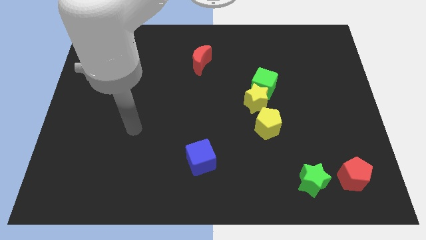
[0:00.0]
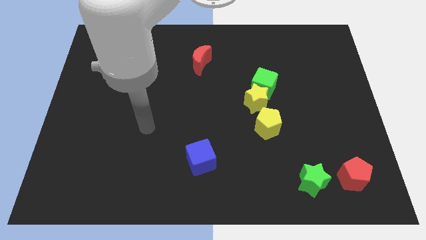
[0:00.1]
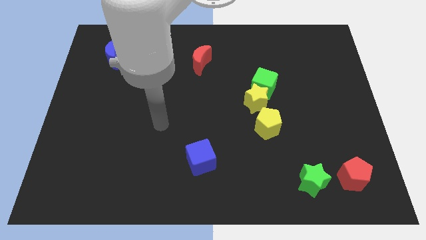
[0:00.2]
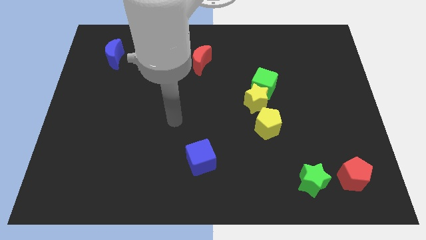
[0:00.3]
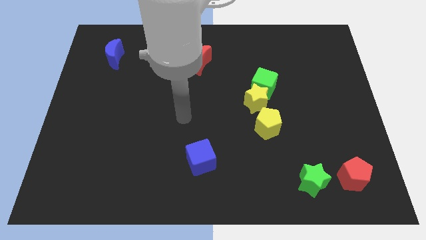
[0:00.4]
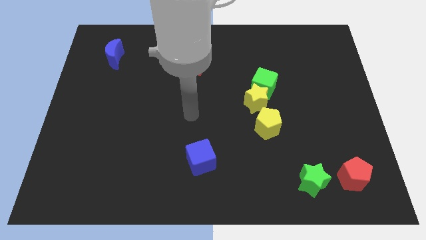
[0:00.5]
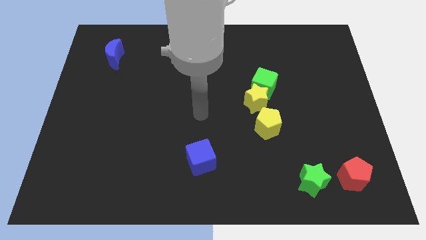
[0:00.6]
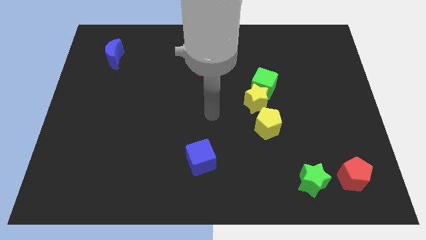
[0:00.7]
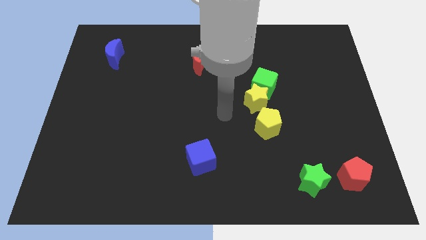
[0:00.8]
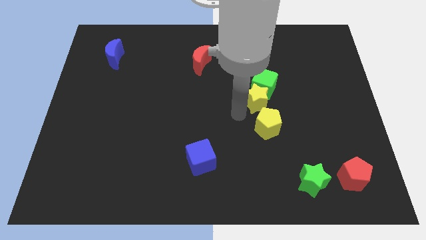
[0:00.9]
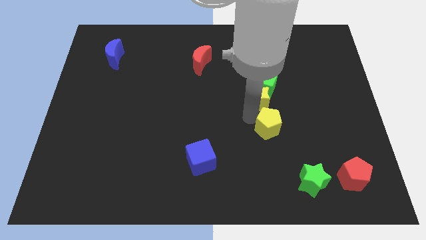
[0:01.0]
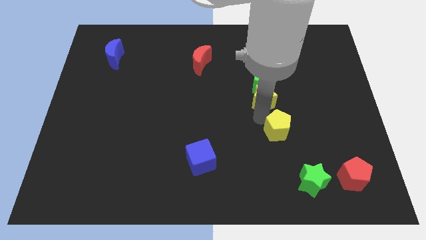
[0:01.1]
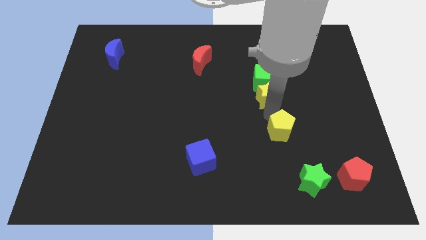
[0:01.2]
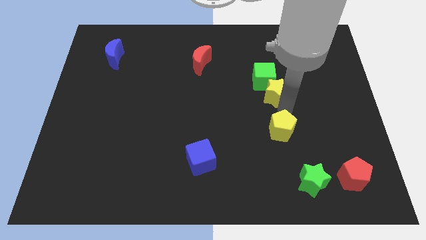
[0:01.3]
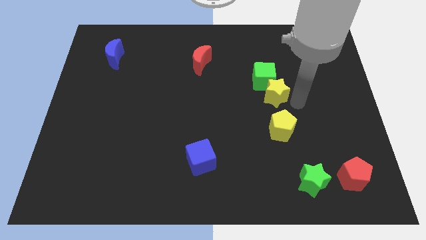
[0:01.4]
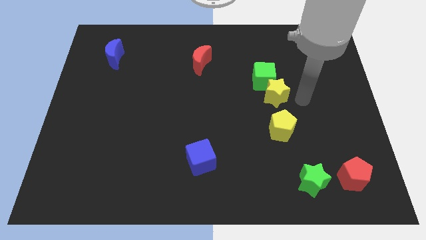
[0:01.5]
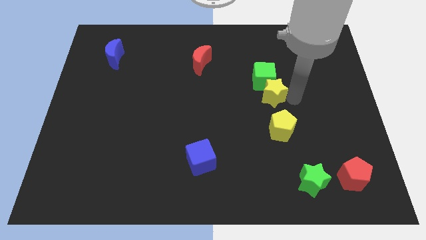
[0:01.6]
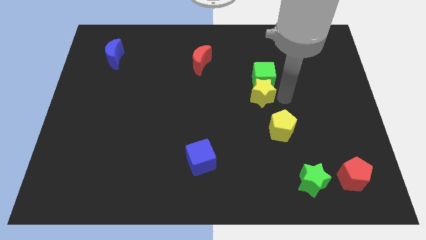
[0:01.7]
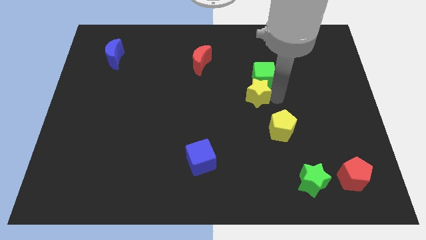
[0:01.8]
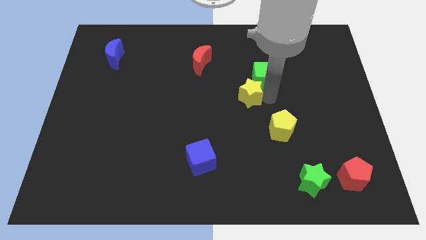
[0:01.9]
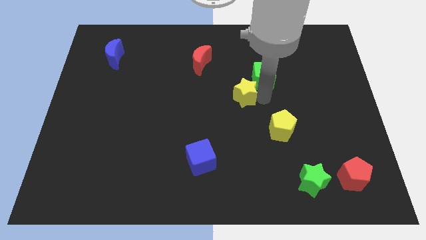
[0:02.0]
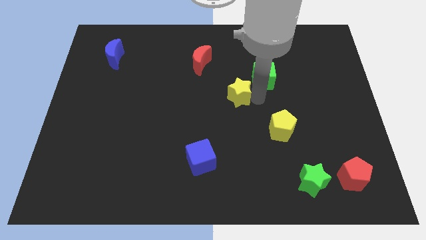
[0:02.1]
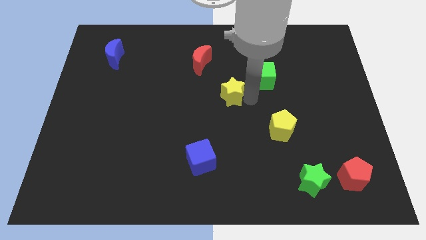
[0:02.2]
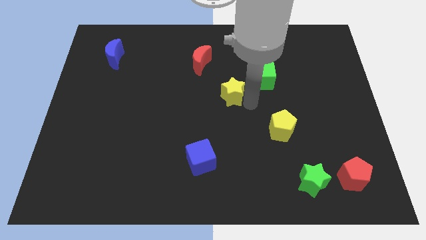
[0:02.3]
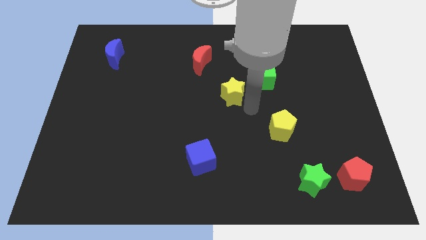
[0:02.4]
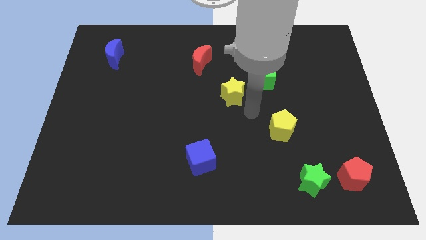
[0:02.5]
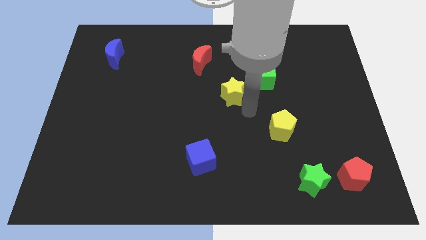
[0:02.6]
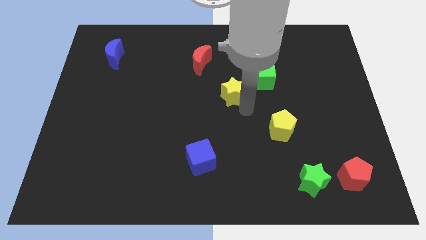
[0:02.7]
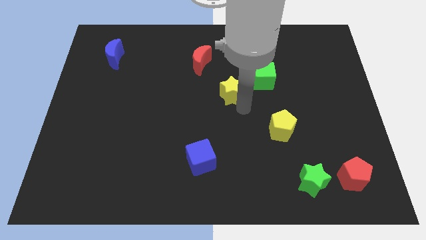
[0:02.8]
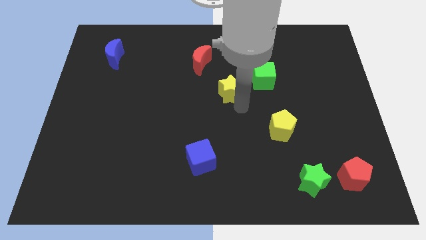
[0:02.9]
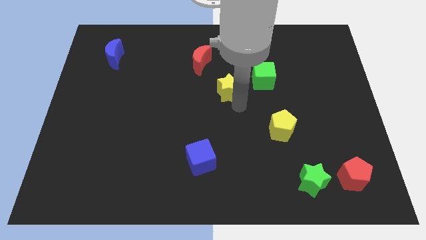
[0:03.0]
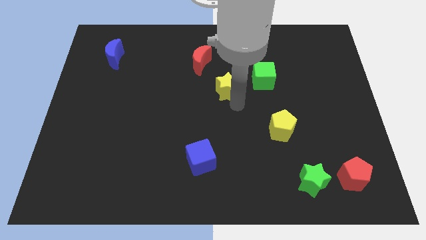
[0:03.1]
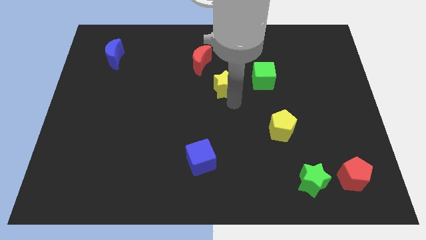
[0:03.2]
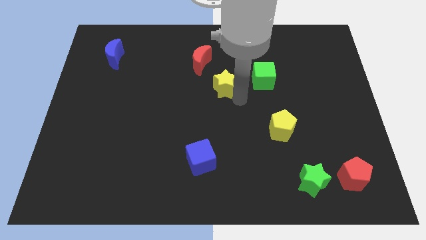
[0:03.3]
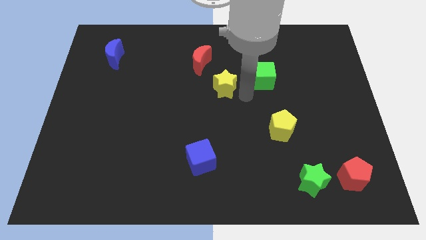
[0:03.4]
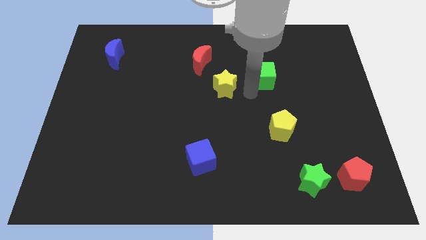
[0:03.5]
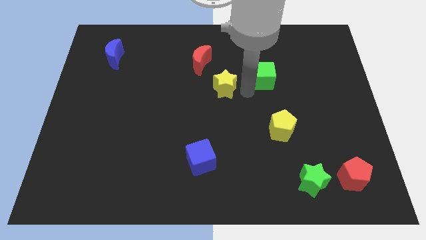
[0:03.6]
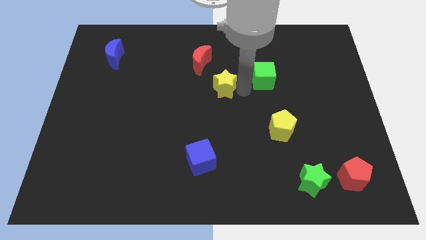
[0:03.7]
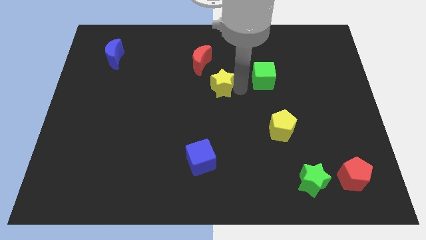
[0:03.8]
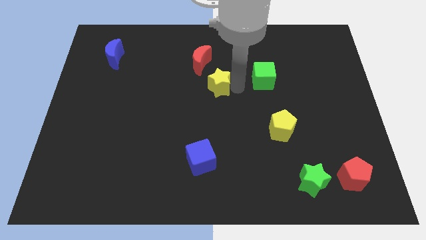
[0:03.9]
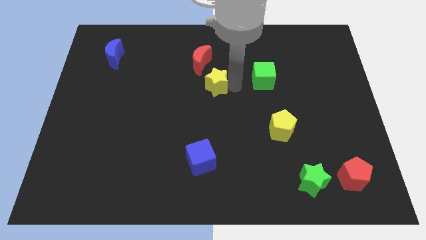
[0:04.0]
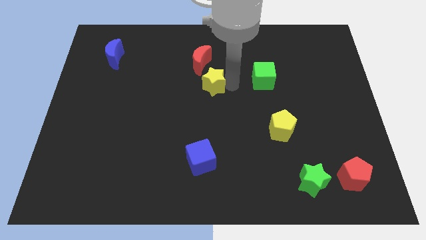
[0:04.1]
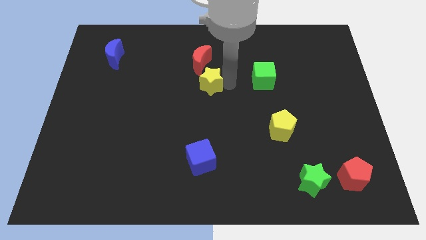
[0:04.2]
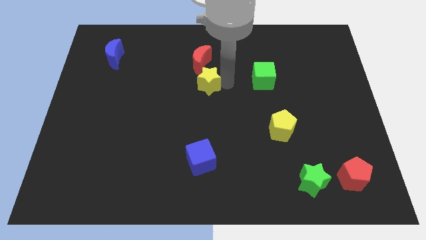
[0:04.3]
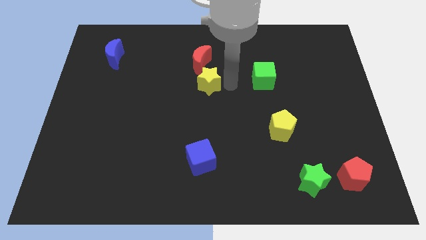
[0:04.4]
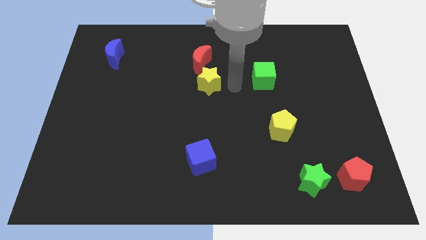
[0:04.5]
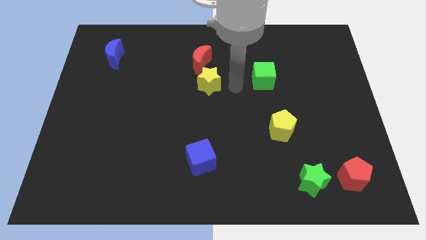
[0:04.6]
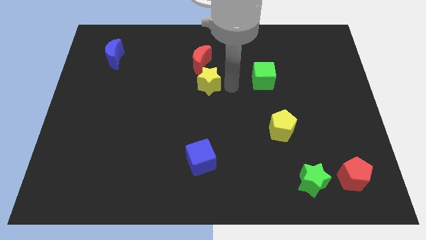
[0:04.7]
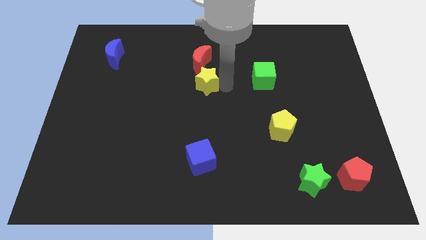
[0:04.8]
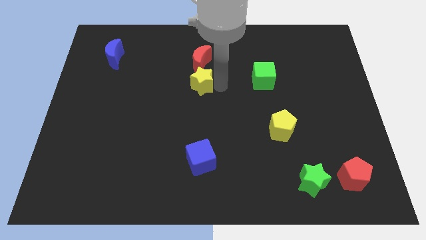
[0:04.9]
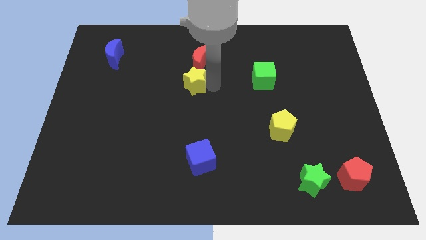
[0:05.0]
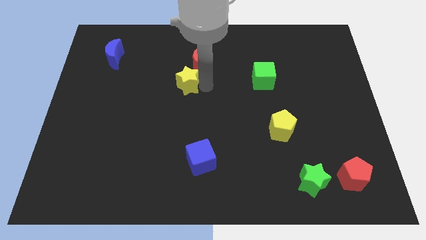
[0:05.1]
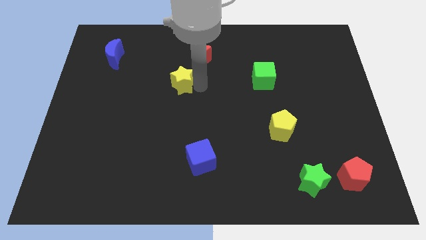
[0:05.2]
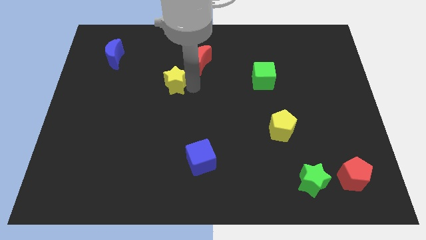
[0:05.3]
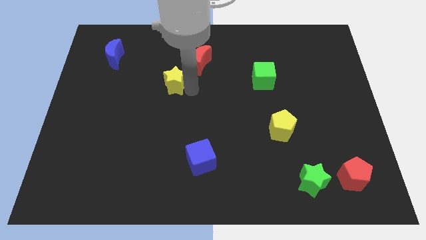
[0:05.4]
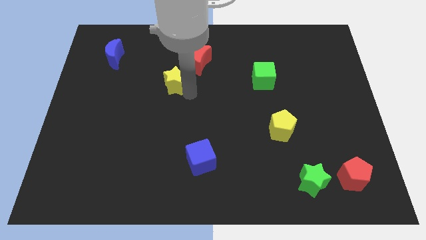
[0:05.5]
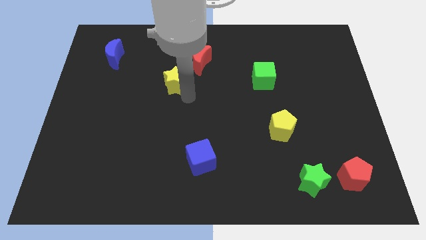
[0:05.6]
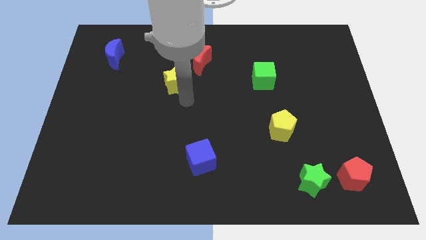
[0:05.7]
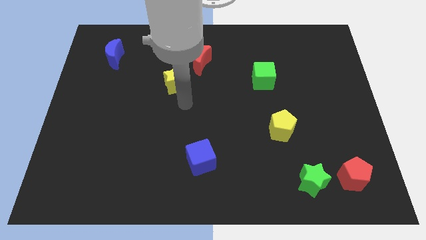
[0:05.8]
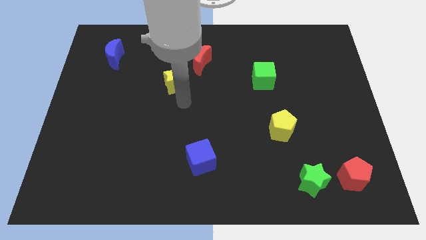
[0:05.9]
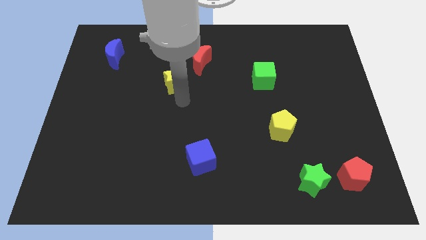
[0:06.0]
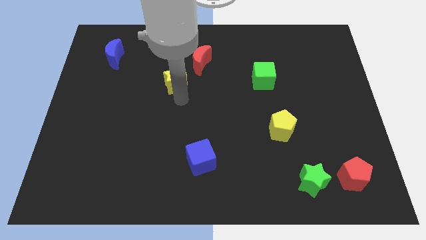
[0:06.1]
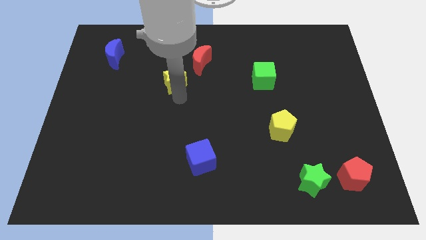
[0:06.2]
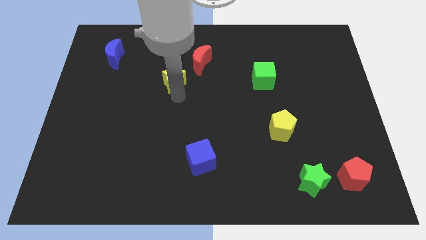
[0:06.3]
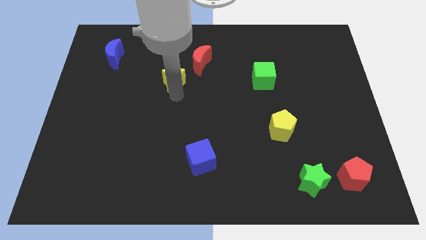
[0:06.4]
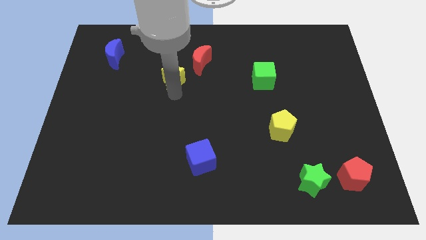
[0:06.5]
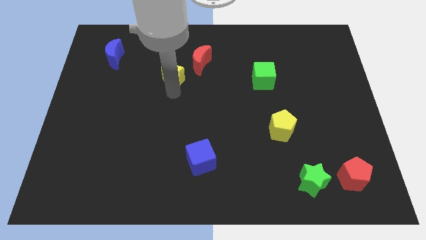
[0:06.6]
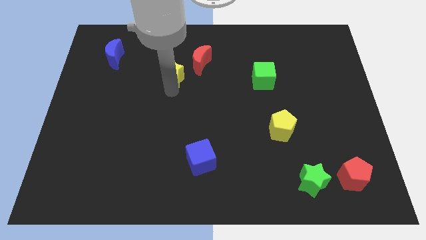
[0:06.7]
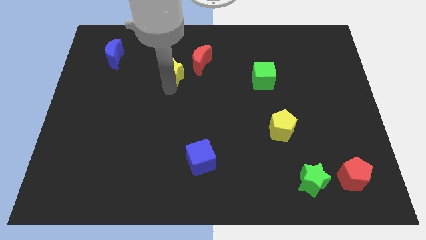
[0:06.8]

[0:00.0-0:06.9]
push the yellow star to the left of the red moon

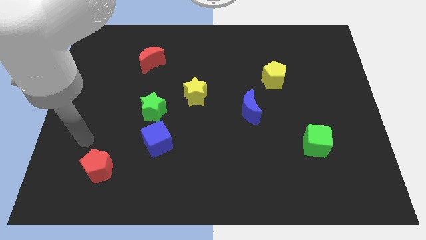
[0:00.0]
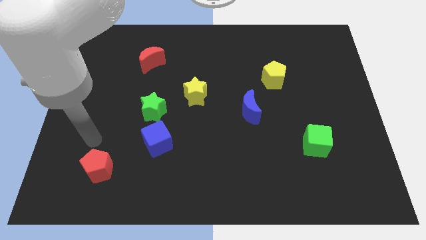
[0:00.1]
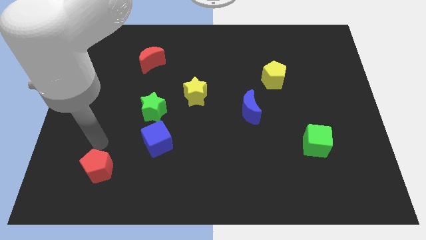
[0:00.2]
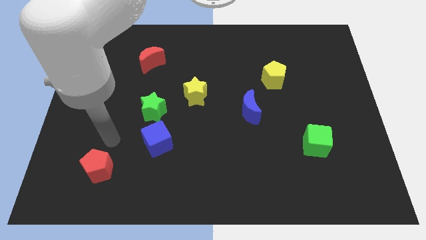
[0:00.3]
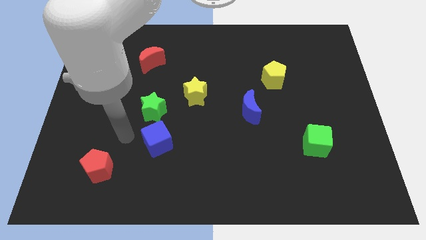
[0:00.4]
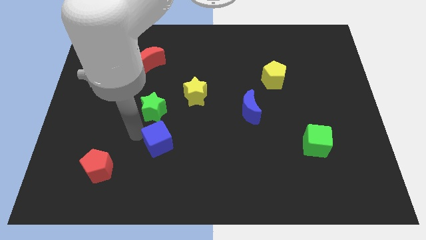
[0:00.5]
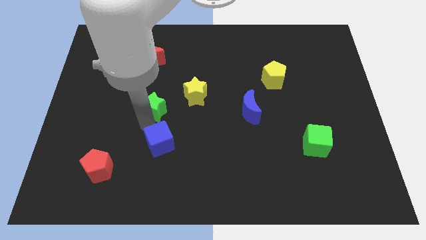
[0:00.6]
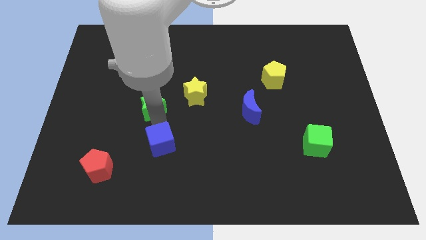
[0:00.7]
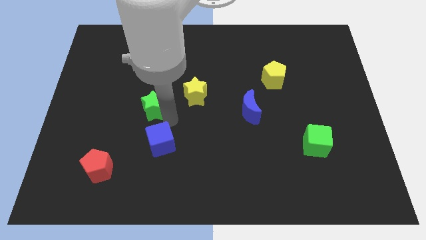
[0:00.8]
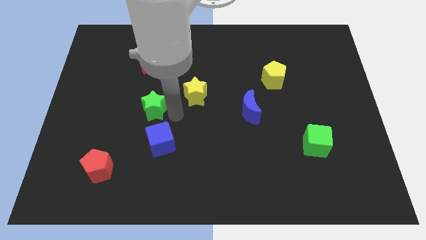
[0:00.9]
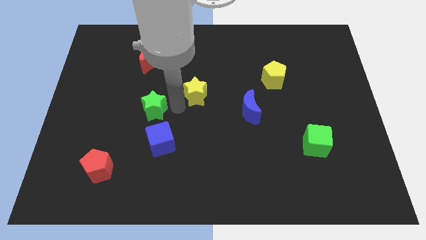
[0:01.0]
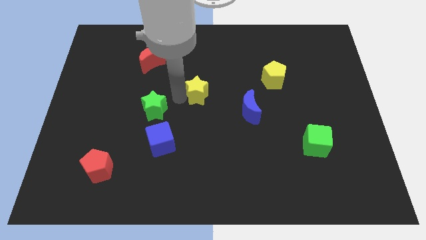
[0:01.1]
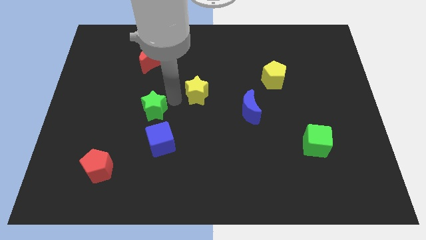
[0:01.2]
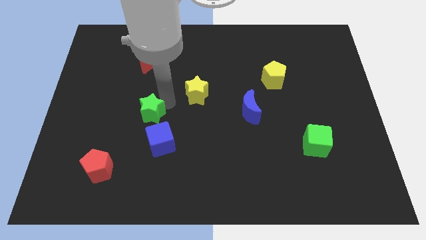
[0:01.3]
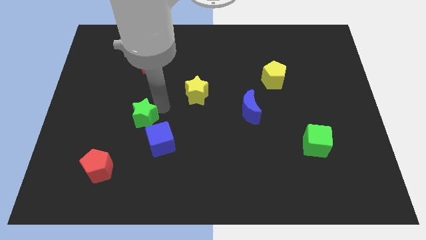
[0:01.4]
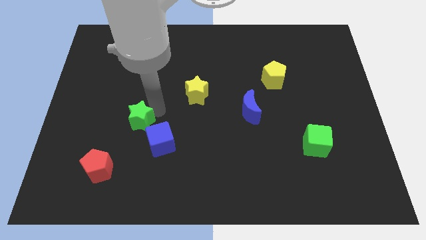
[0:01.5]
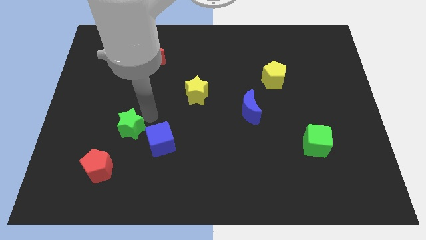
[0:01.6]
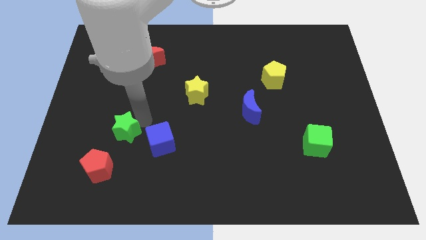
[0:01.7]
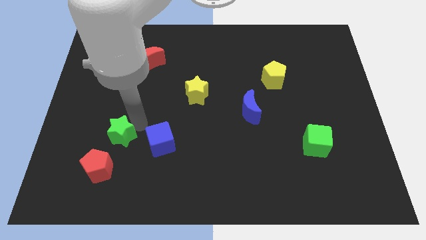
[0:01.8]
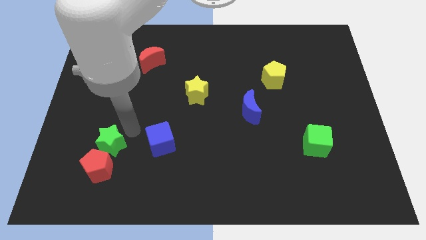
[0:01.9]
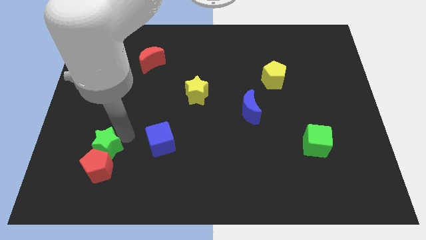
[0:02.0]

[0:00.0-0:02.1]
put the green star to the top left of the red pentagon
